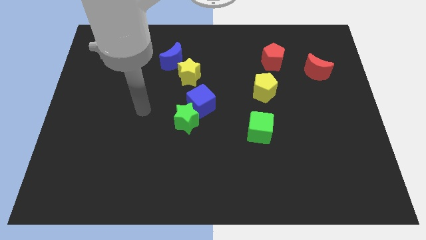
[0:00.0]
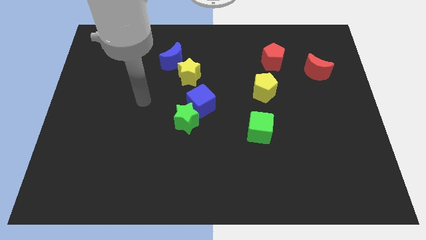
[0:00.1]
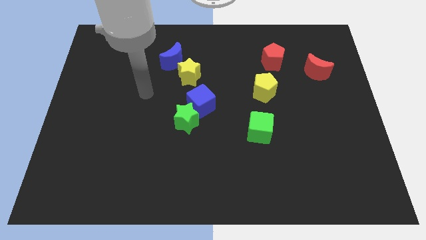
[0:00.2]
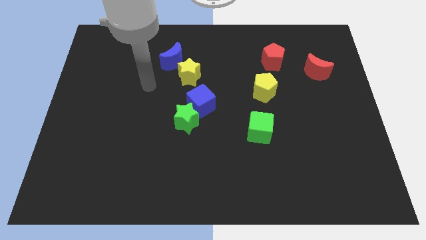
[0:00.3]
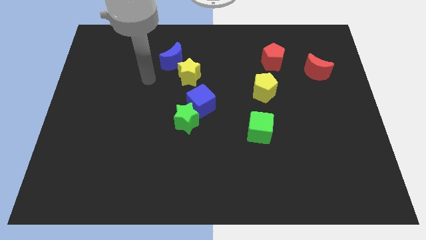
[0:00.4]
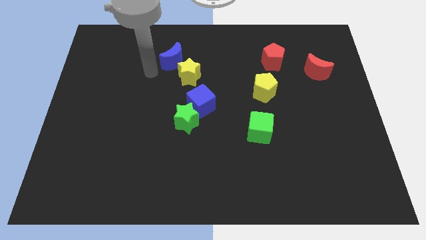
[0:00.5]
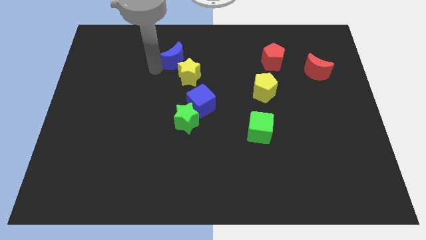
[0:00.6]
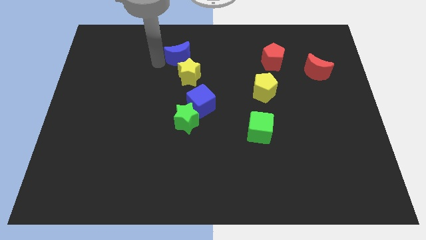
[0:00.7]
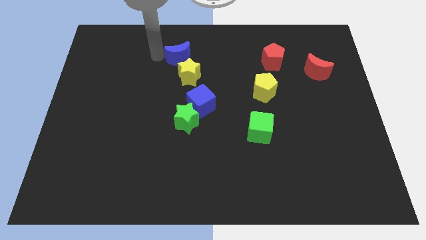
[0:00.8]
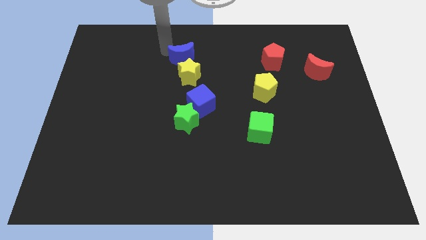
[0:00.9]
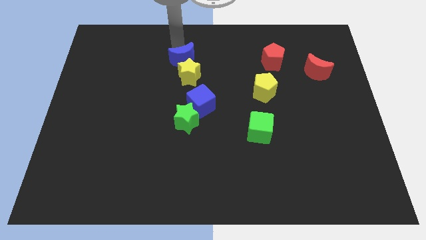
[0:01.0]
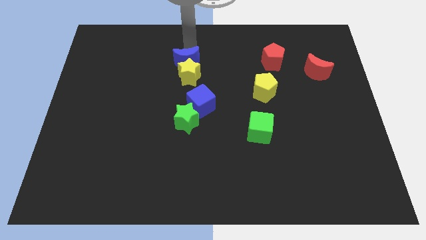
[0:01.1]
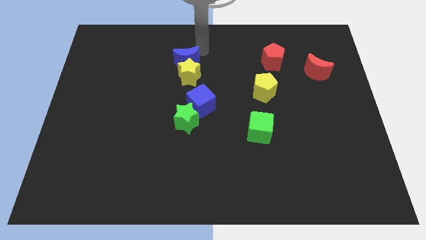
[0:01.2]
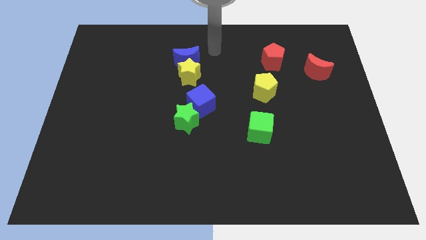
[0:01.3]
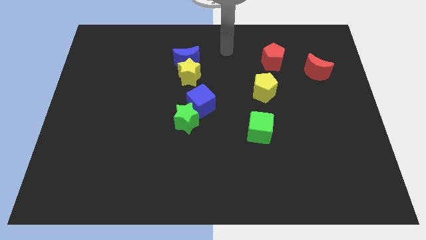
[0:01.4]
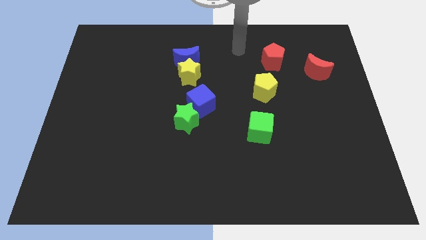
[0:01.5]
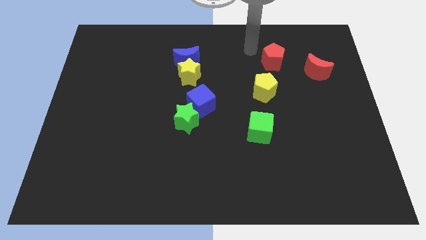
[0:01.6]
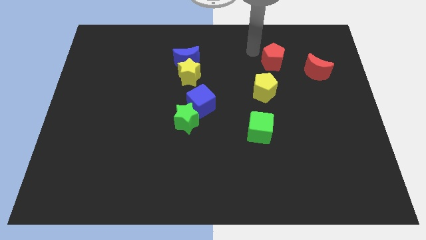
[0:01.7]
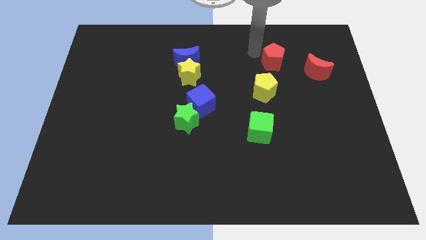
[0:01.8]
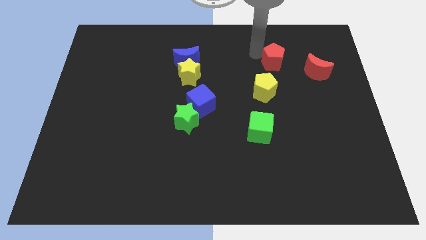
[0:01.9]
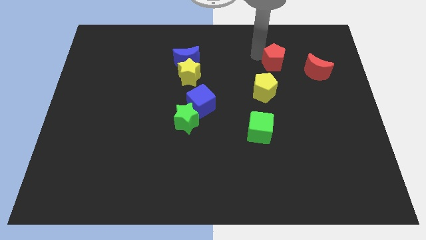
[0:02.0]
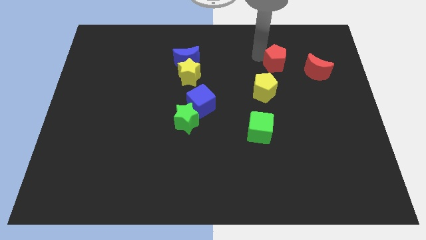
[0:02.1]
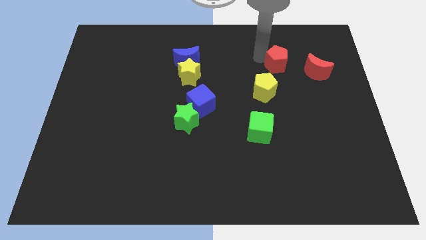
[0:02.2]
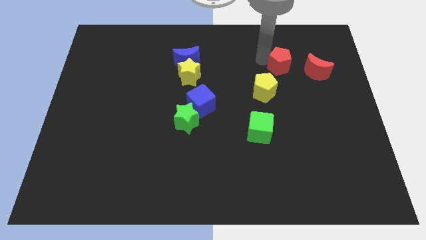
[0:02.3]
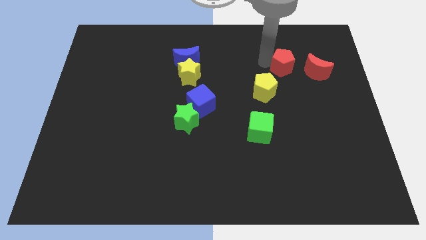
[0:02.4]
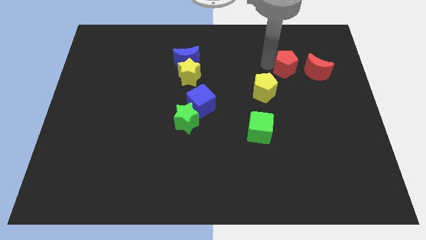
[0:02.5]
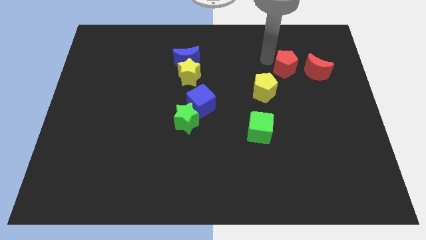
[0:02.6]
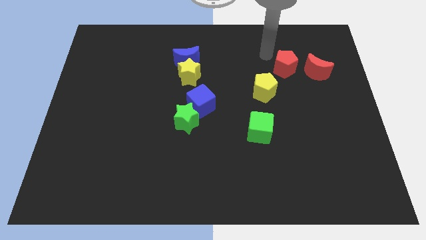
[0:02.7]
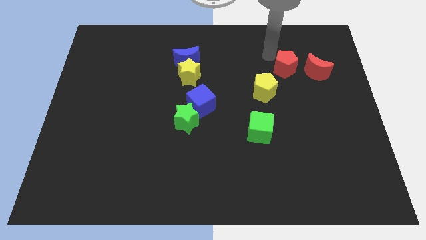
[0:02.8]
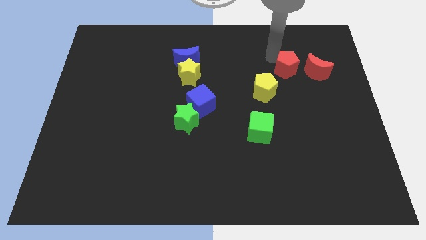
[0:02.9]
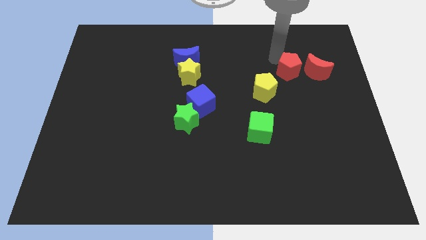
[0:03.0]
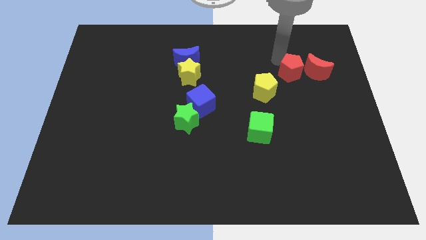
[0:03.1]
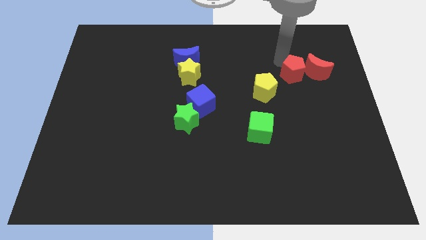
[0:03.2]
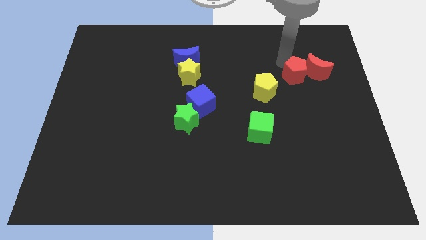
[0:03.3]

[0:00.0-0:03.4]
move the red pentagon a little down and to the right

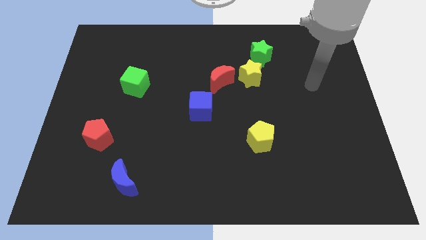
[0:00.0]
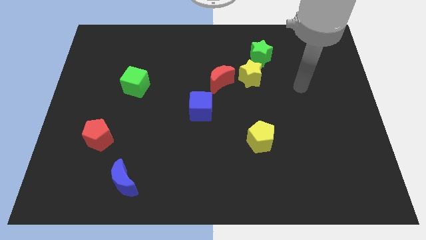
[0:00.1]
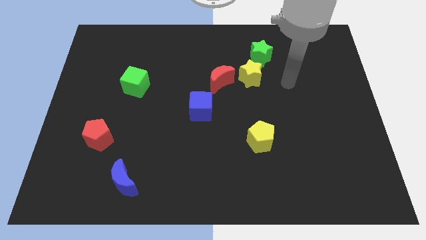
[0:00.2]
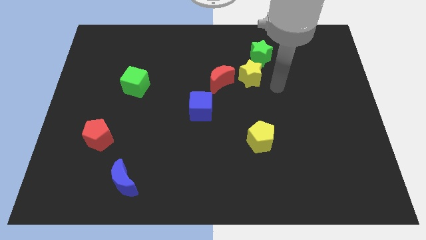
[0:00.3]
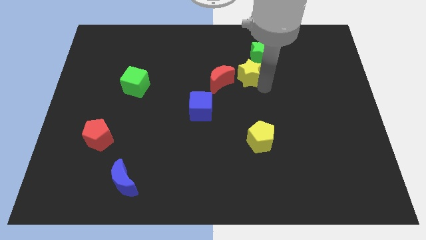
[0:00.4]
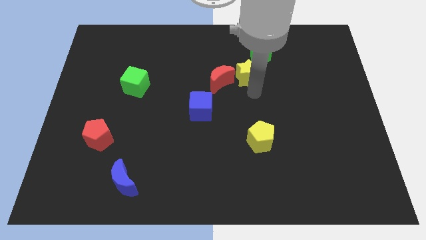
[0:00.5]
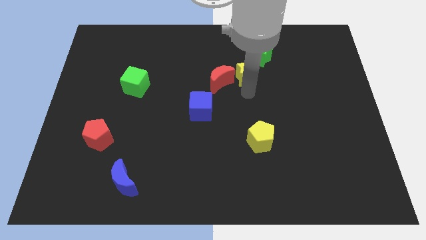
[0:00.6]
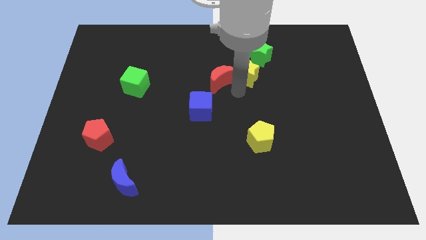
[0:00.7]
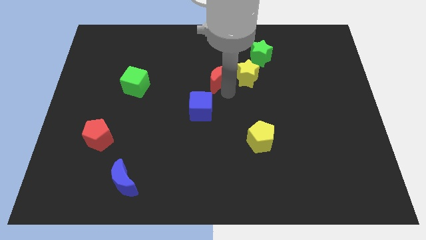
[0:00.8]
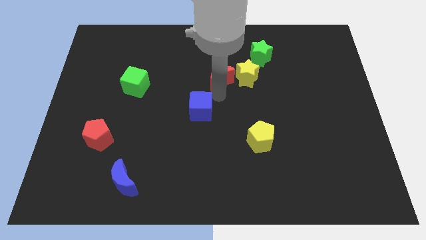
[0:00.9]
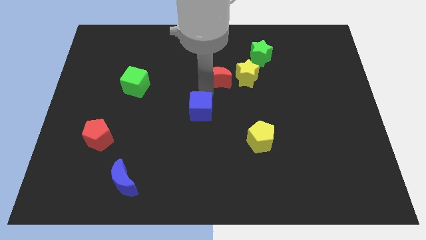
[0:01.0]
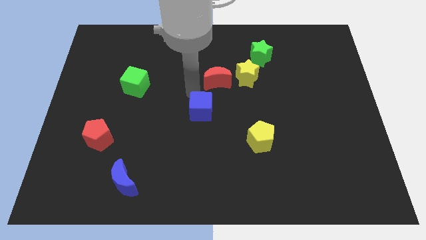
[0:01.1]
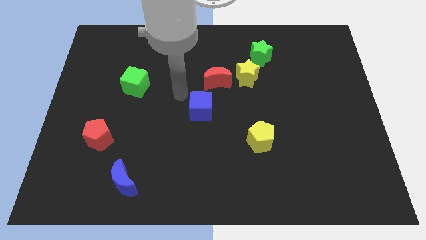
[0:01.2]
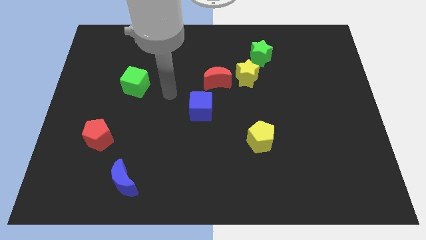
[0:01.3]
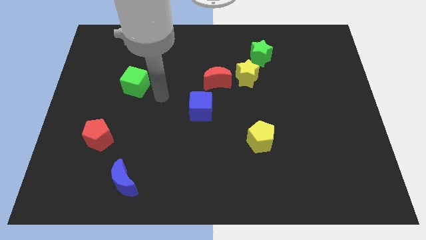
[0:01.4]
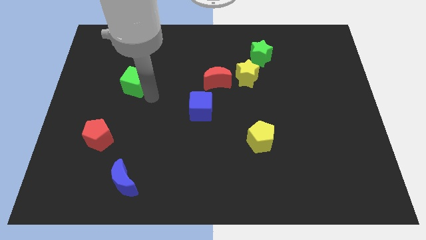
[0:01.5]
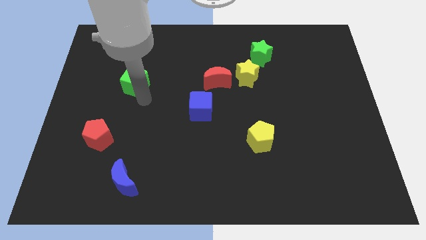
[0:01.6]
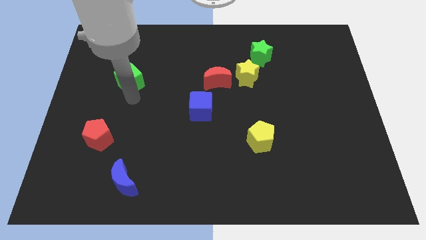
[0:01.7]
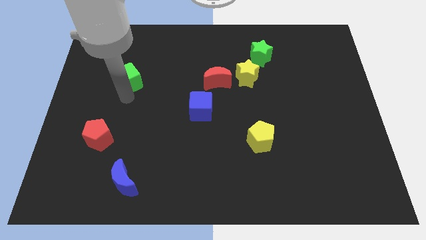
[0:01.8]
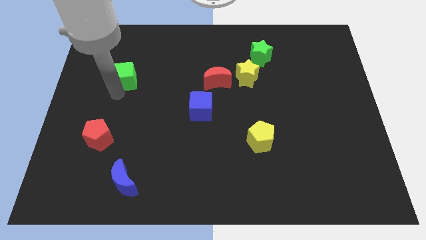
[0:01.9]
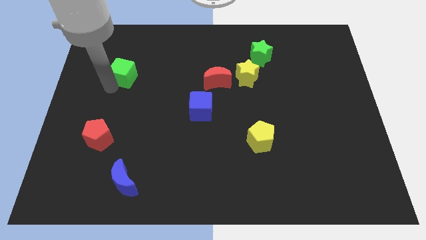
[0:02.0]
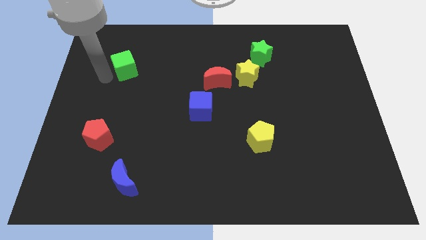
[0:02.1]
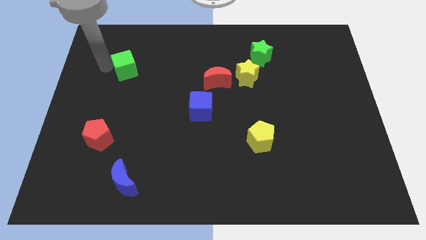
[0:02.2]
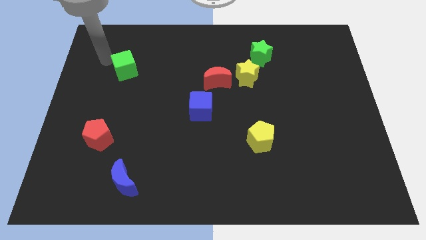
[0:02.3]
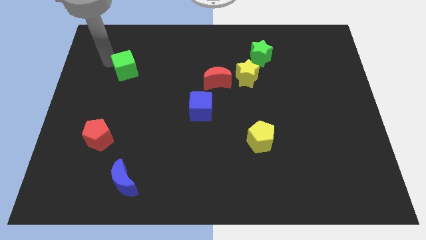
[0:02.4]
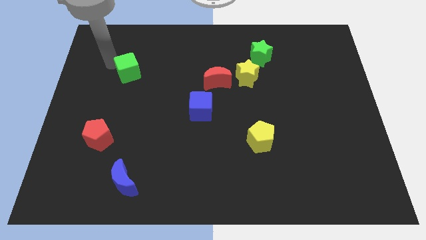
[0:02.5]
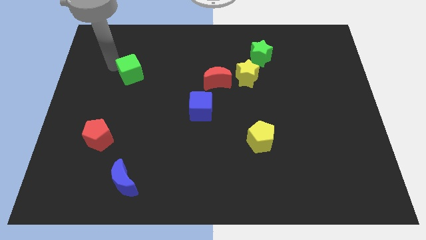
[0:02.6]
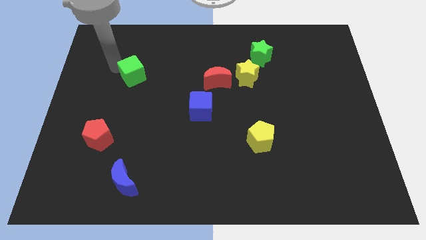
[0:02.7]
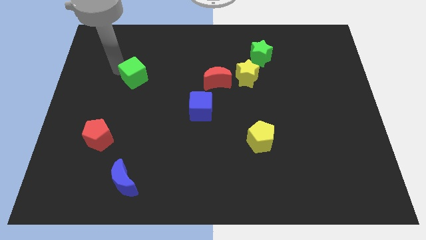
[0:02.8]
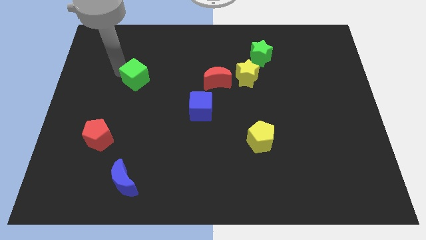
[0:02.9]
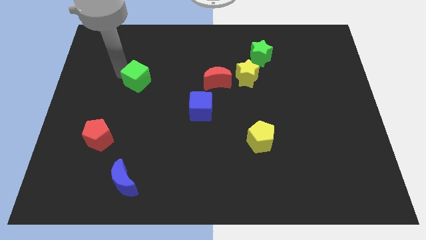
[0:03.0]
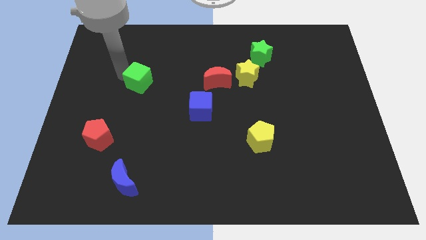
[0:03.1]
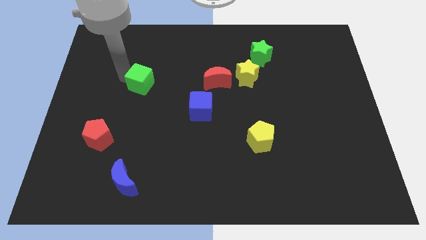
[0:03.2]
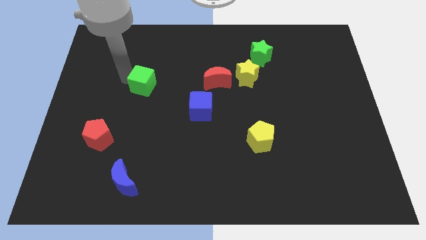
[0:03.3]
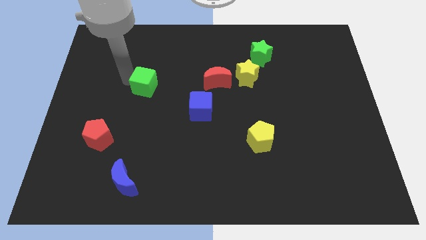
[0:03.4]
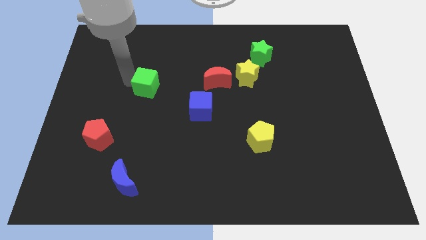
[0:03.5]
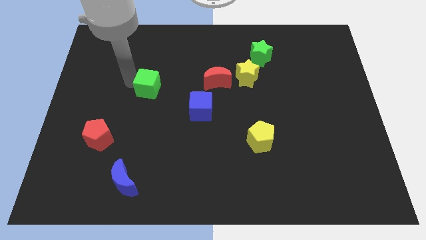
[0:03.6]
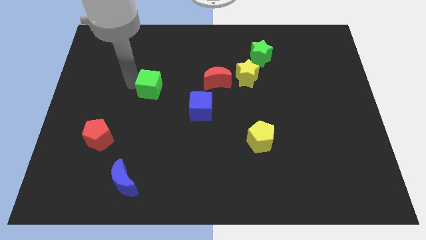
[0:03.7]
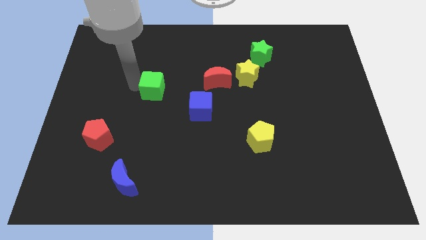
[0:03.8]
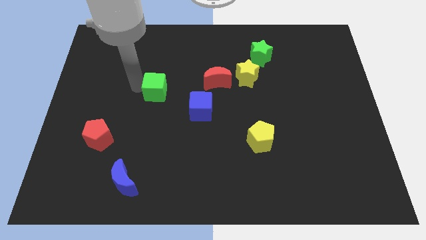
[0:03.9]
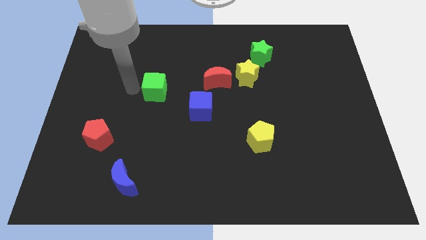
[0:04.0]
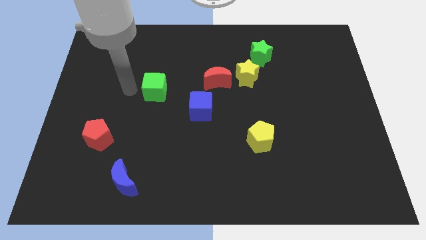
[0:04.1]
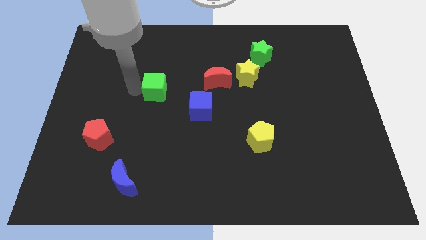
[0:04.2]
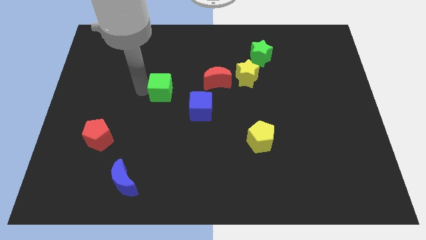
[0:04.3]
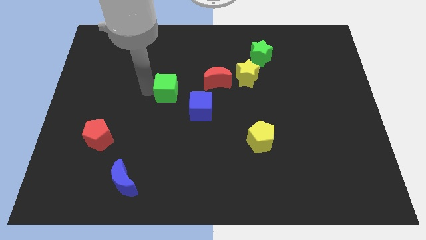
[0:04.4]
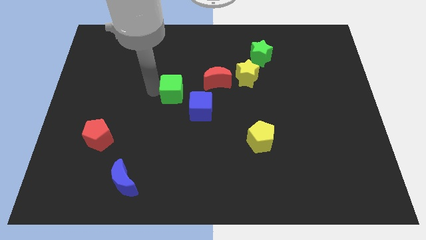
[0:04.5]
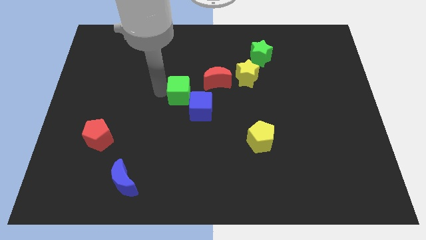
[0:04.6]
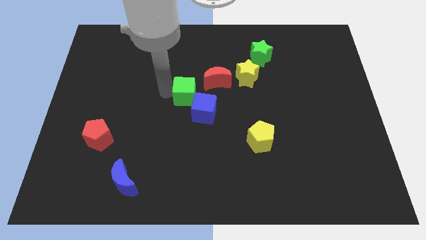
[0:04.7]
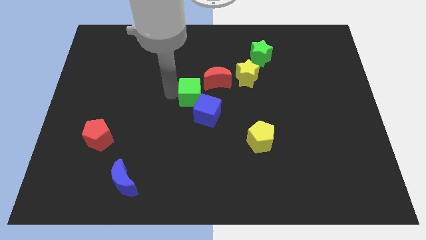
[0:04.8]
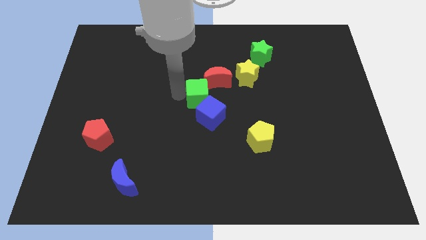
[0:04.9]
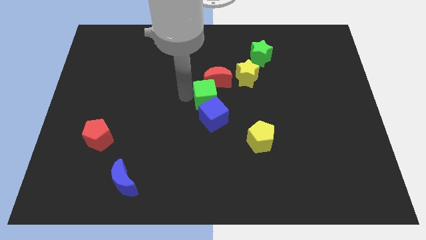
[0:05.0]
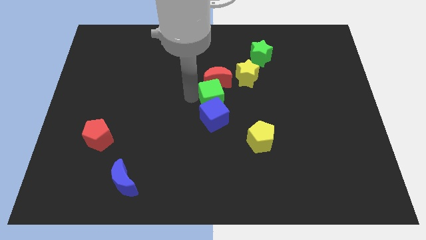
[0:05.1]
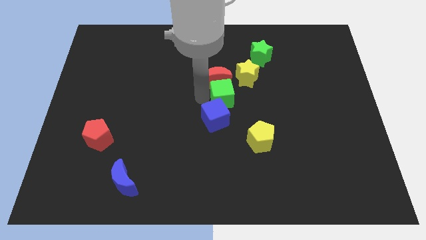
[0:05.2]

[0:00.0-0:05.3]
slide the green cube right
